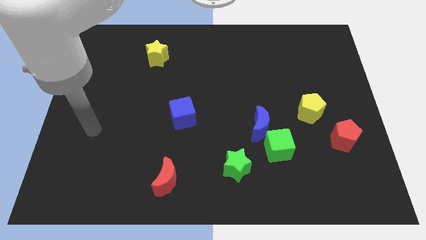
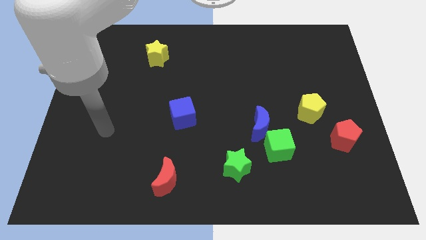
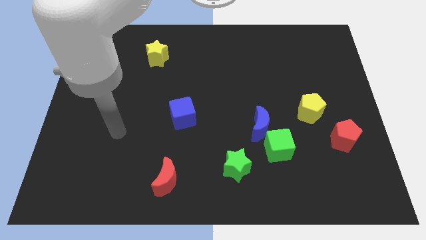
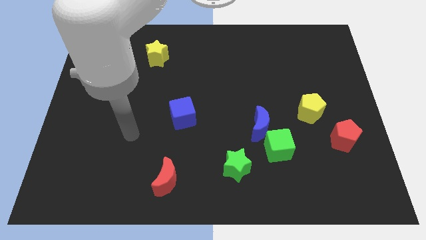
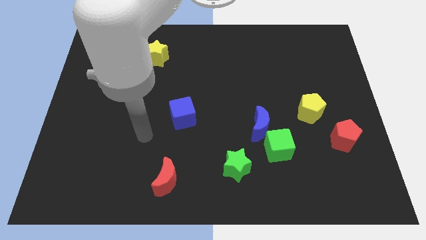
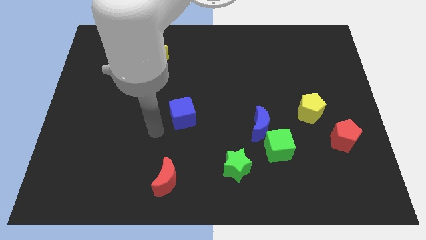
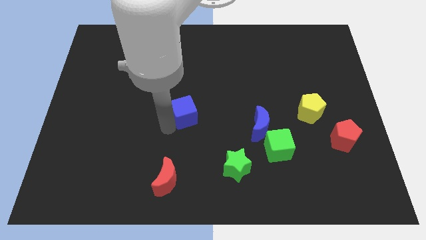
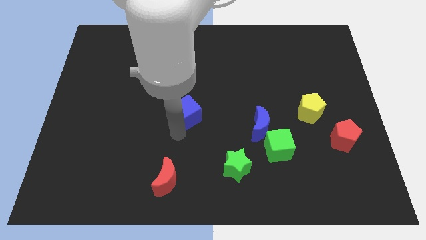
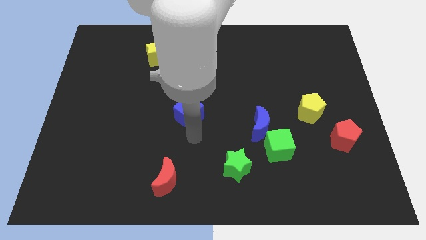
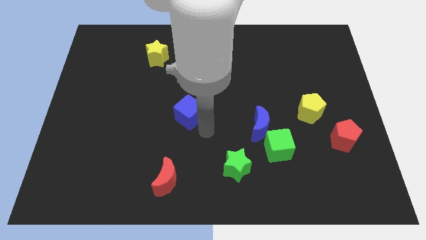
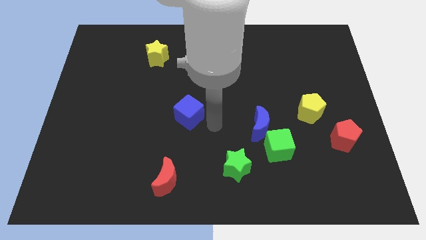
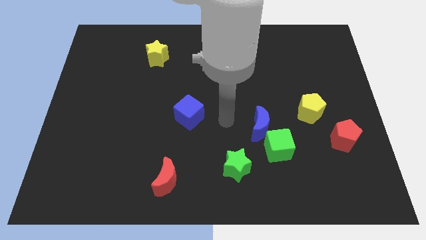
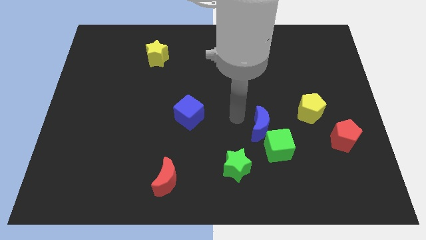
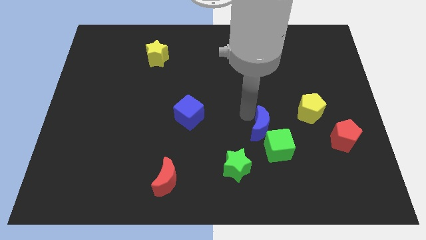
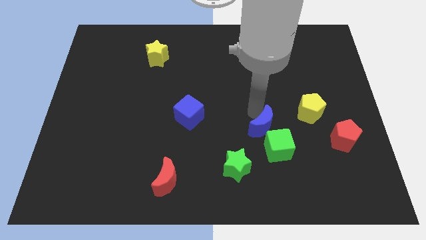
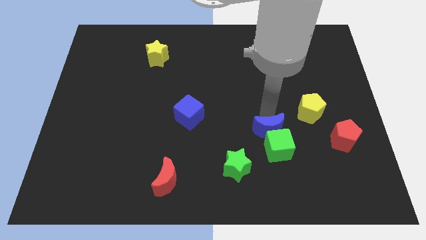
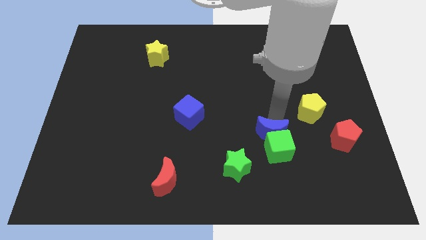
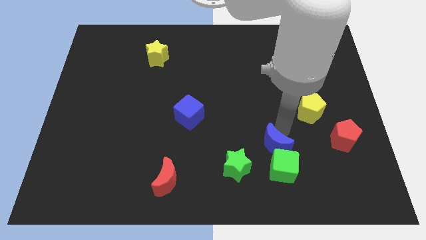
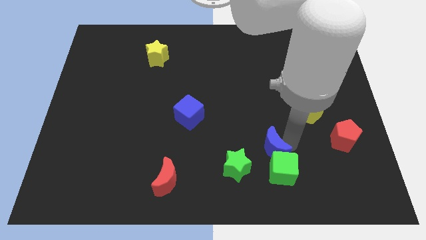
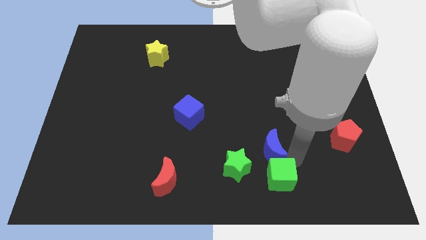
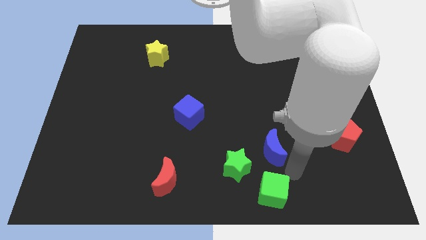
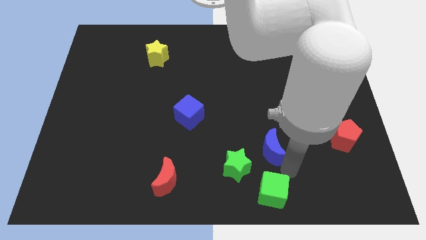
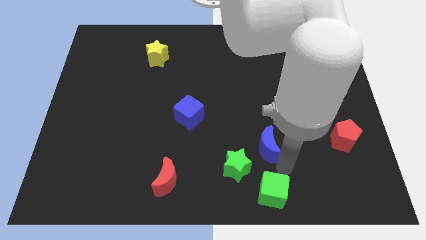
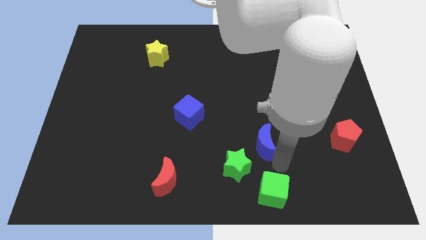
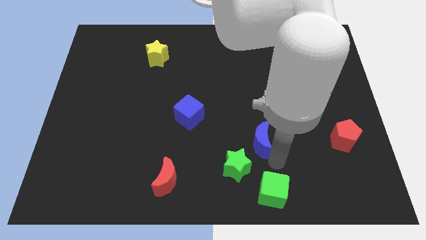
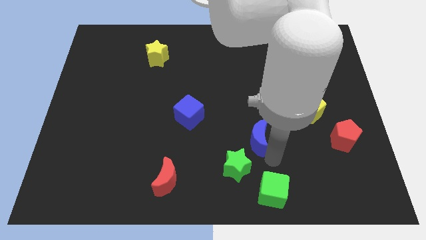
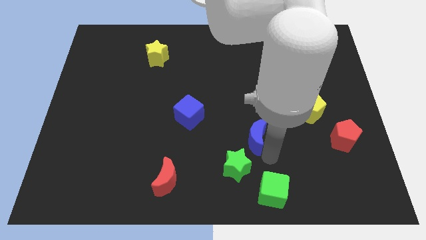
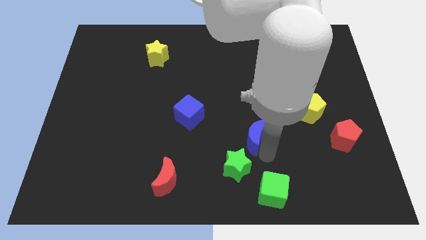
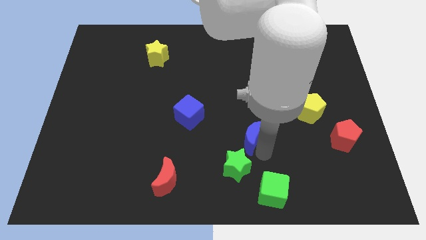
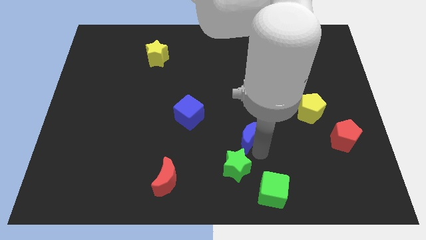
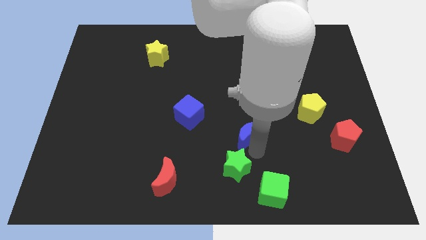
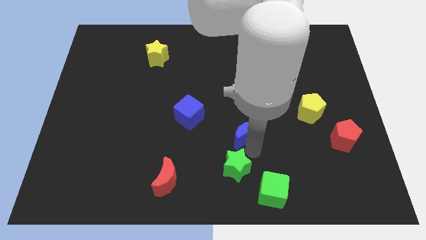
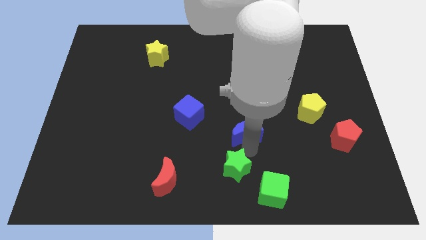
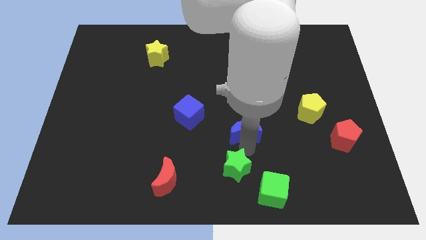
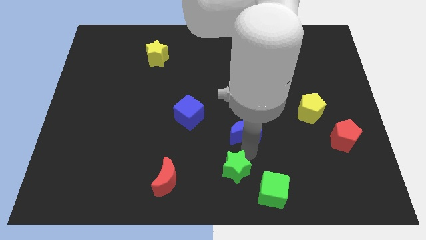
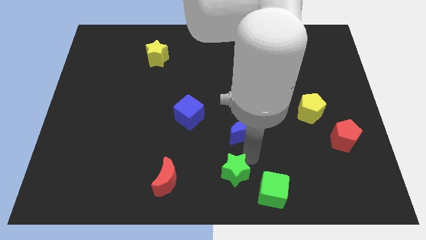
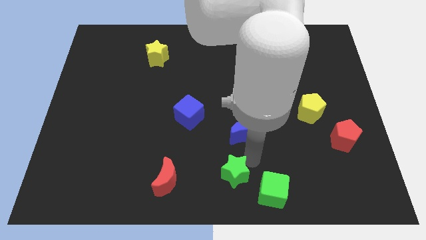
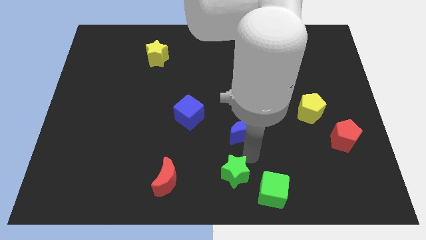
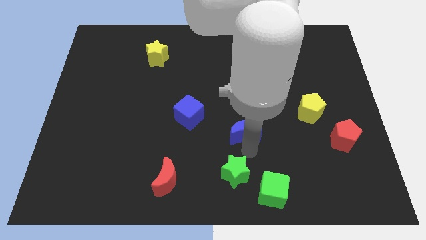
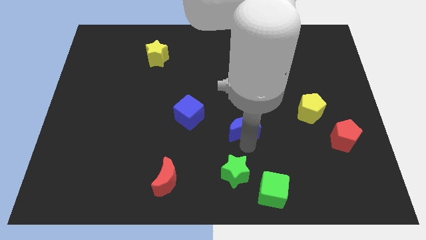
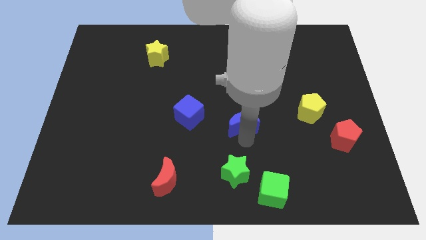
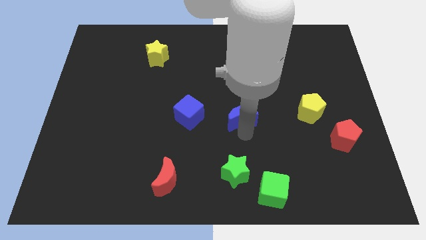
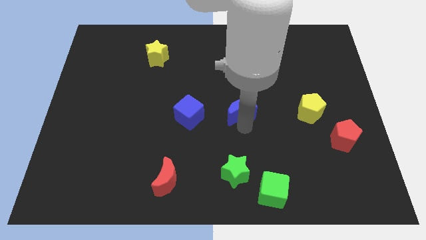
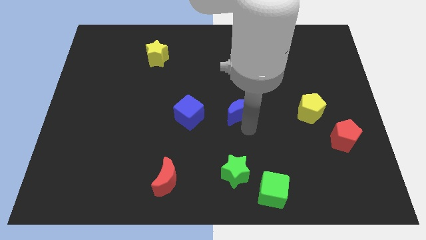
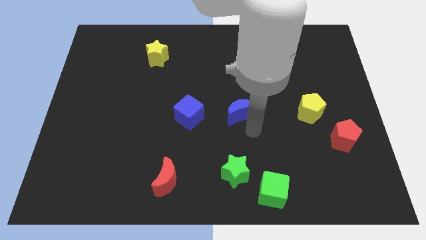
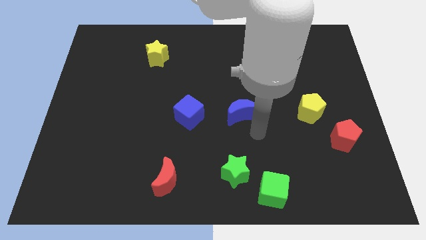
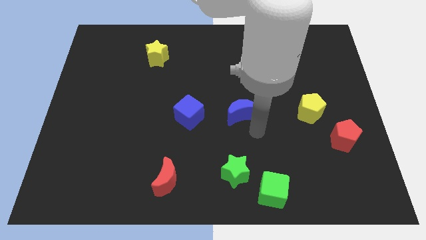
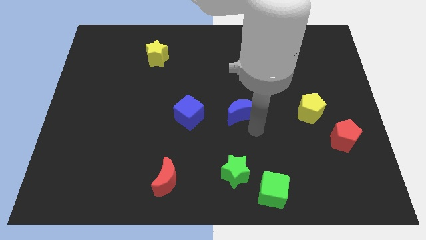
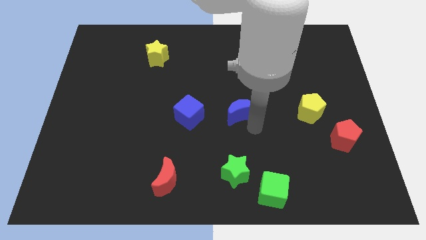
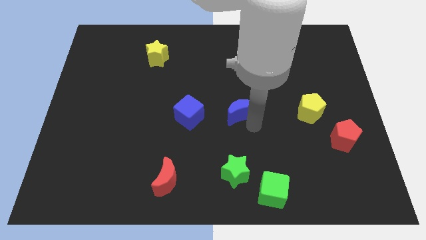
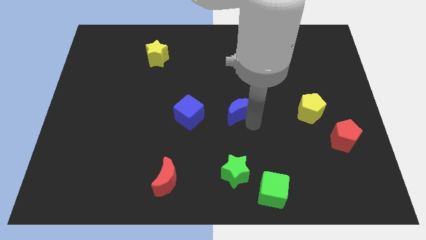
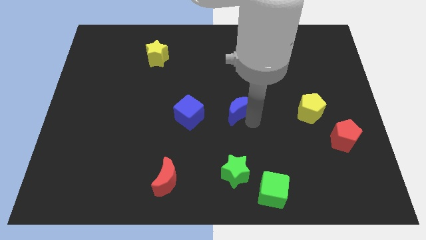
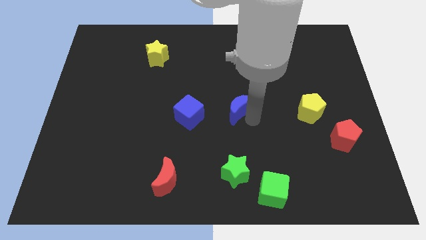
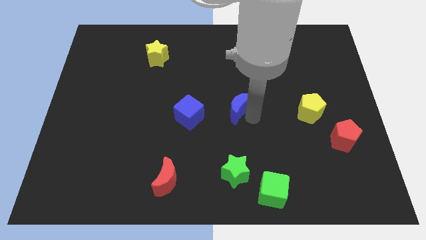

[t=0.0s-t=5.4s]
slide the blue moon upwards and then to the left slightly

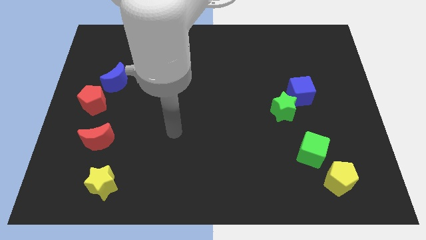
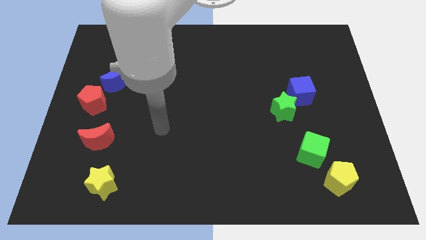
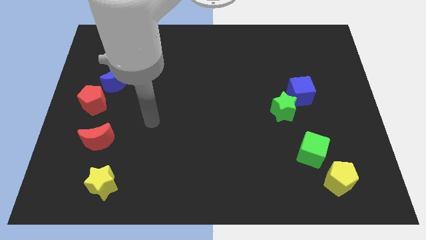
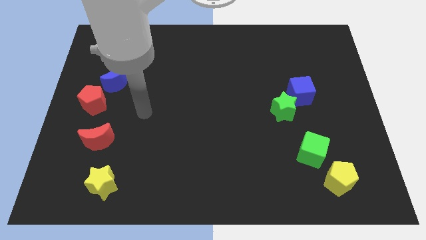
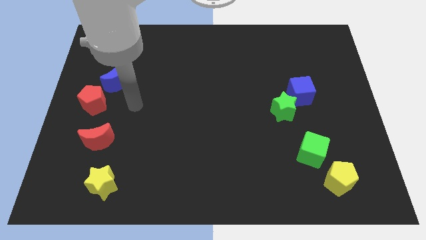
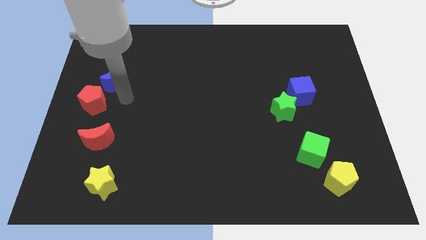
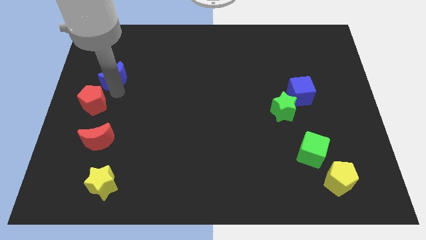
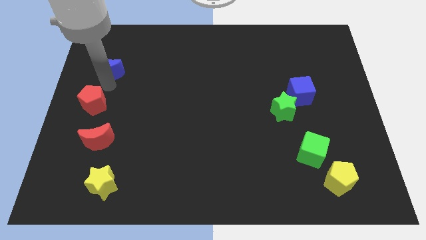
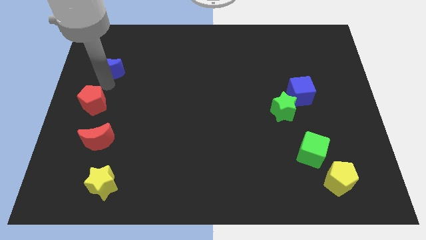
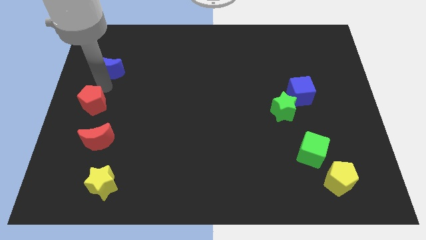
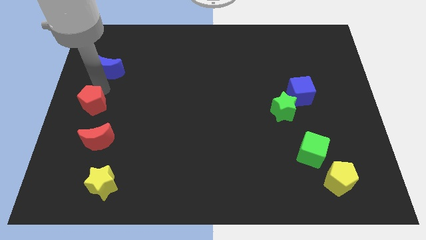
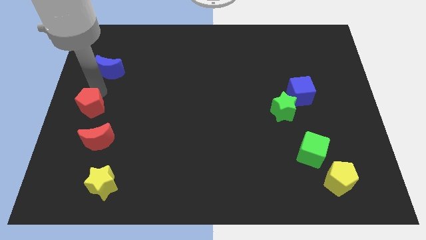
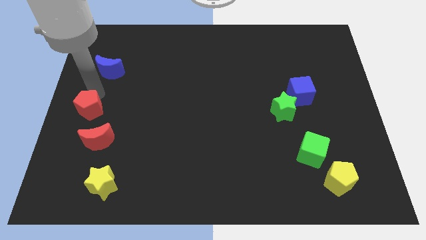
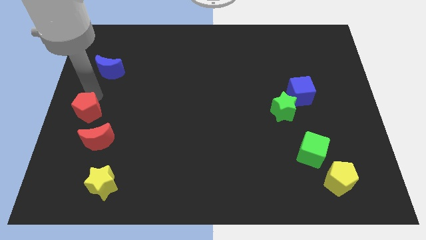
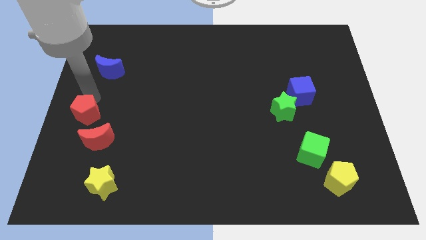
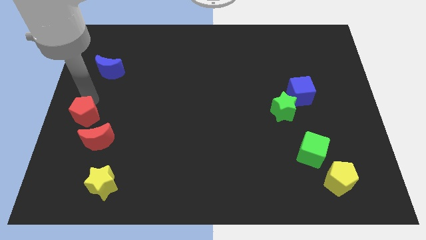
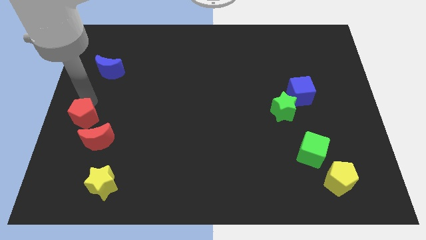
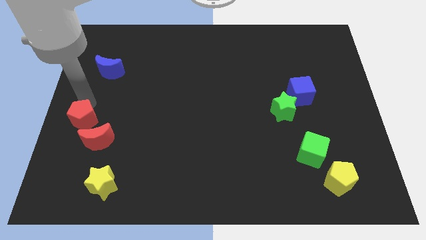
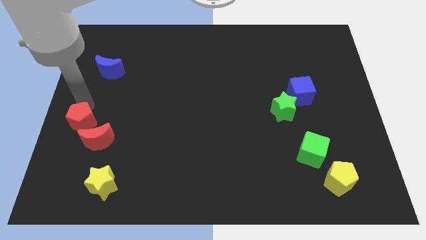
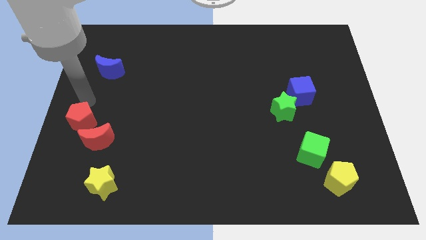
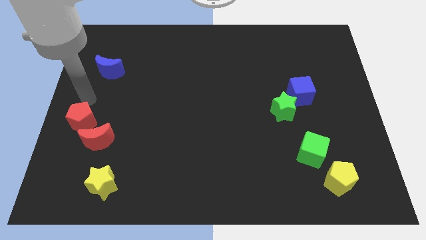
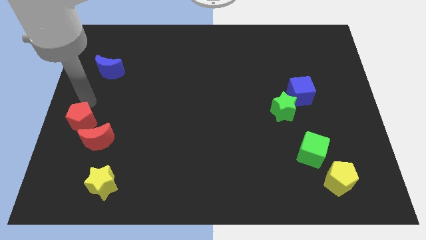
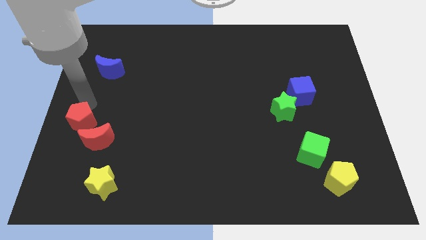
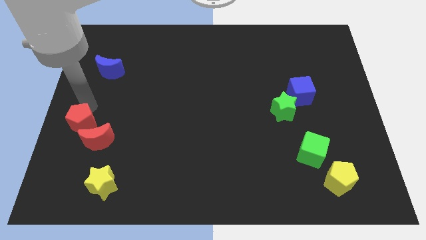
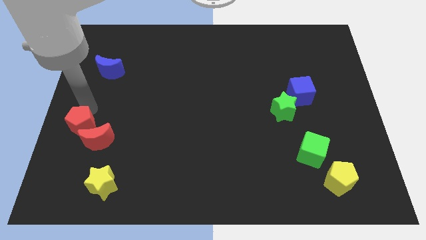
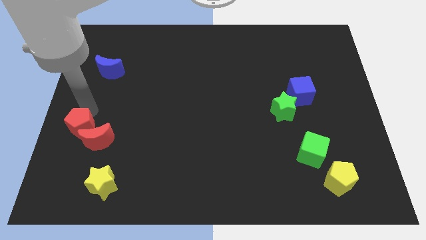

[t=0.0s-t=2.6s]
slide the red pentagon down a little bit
